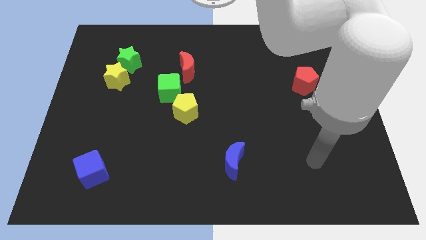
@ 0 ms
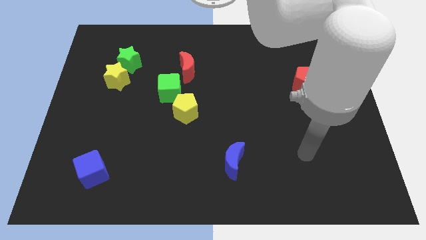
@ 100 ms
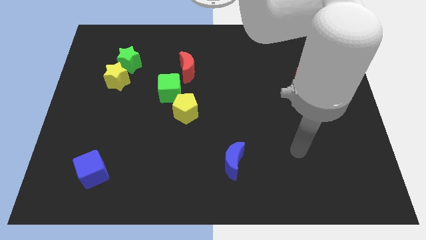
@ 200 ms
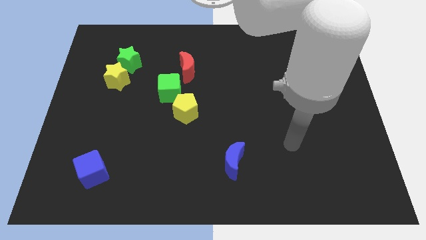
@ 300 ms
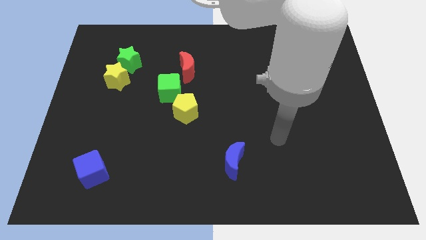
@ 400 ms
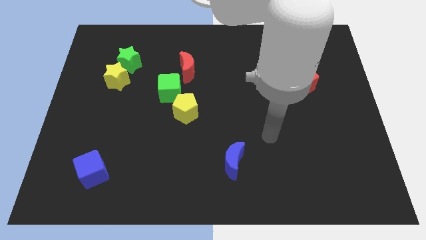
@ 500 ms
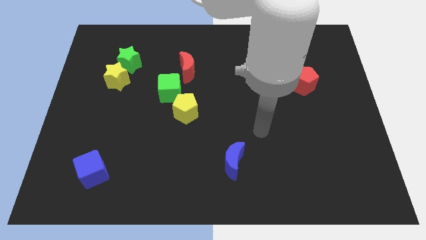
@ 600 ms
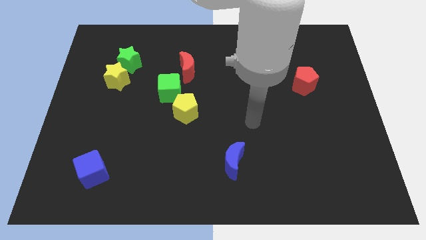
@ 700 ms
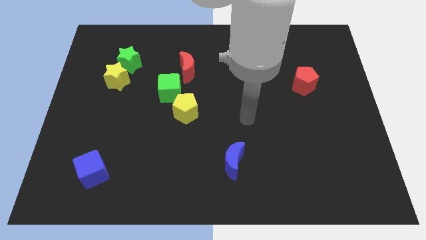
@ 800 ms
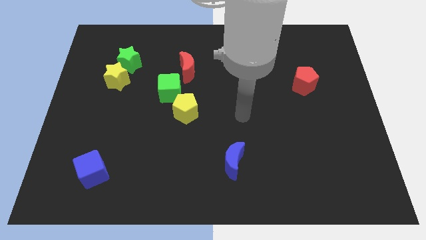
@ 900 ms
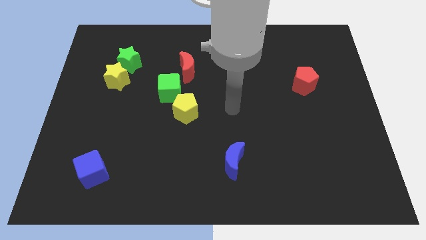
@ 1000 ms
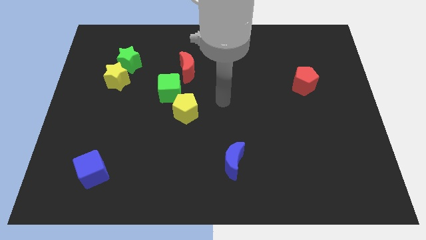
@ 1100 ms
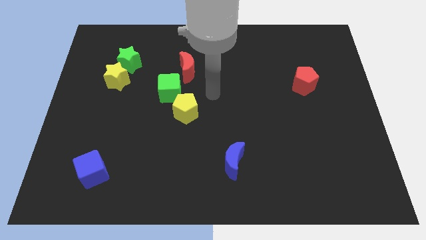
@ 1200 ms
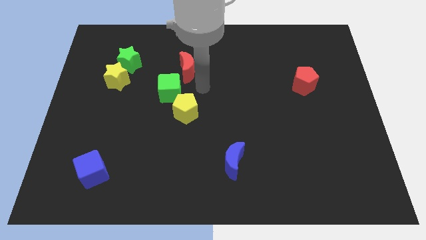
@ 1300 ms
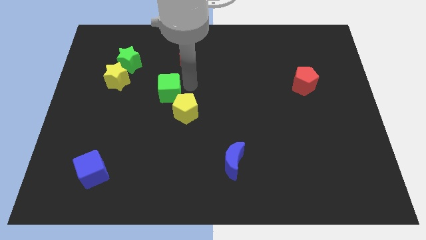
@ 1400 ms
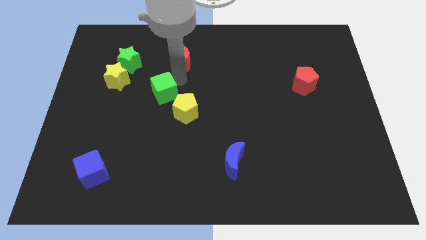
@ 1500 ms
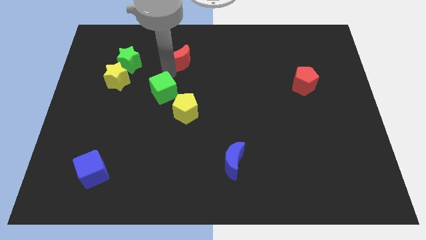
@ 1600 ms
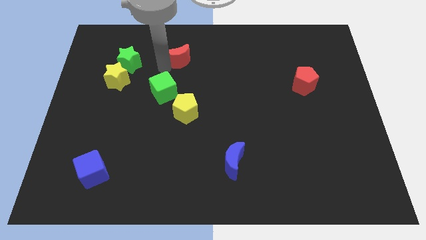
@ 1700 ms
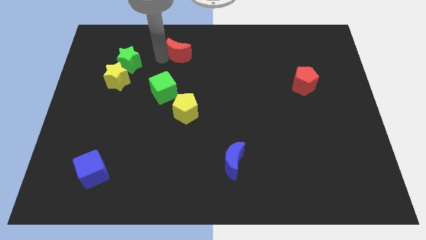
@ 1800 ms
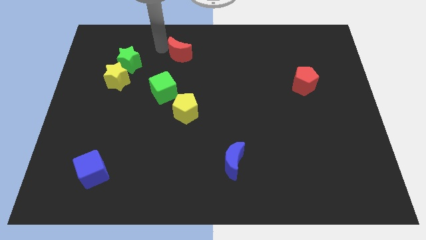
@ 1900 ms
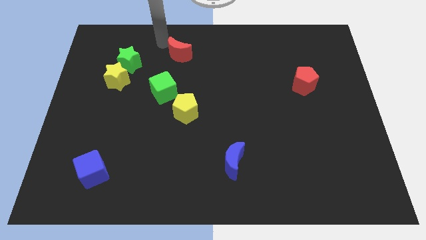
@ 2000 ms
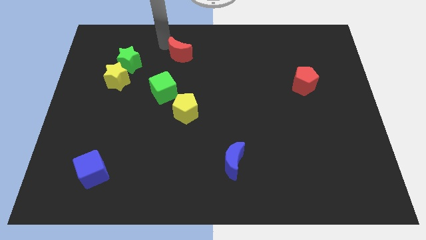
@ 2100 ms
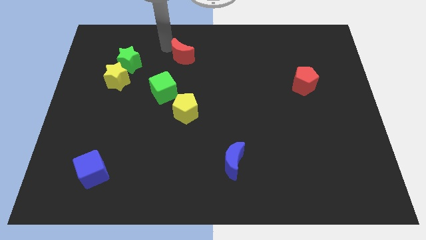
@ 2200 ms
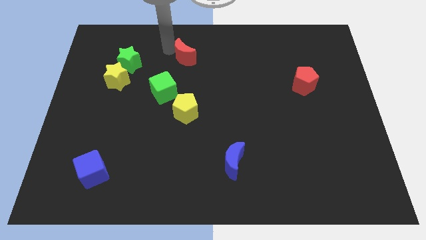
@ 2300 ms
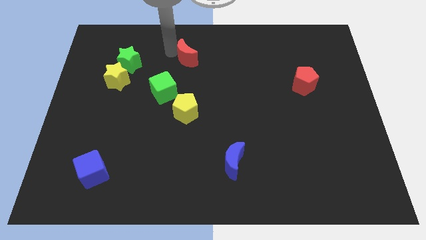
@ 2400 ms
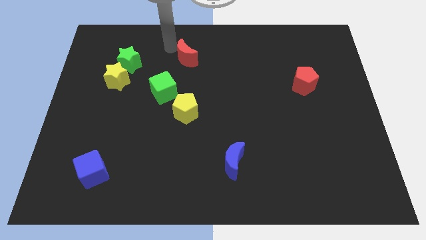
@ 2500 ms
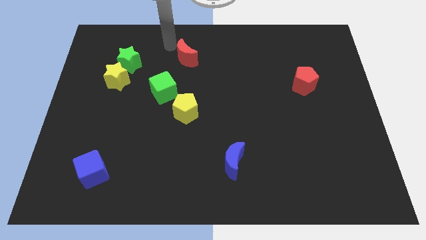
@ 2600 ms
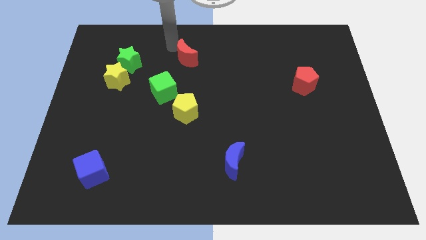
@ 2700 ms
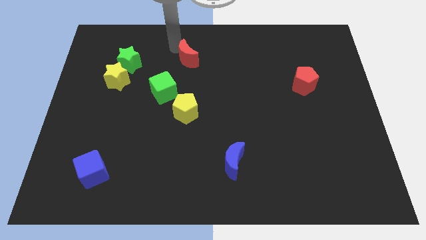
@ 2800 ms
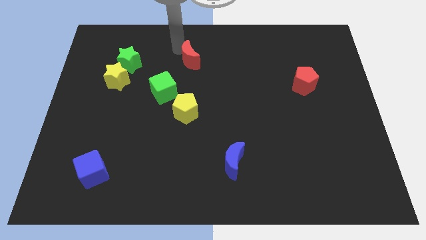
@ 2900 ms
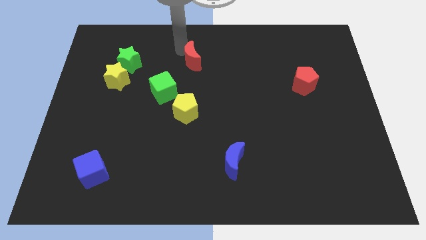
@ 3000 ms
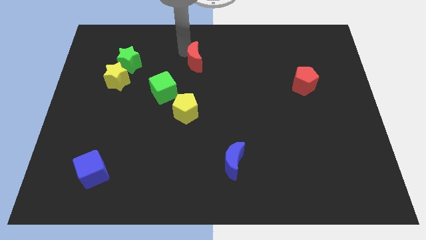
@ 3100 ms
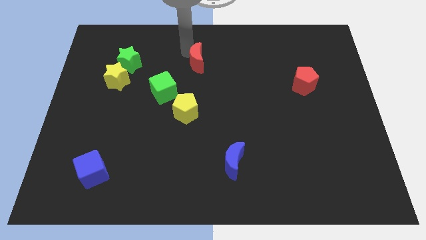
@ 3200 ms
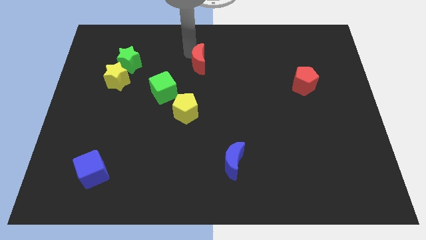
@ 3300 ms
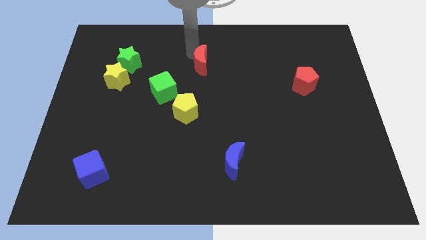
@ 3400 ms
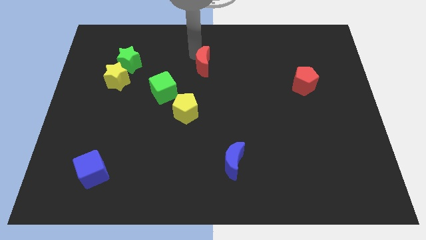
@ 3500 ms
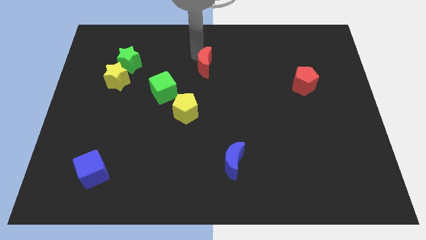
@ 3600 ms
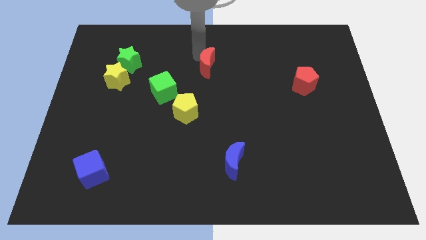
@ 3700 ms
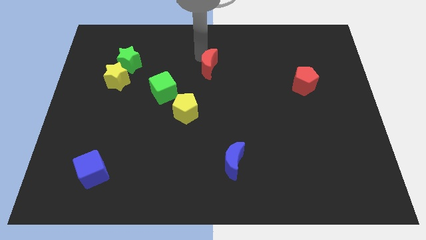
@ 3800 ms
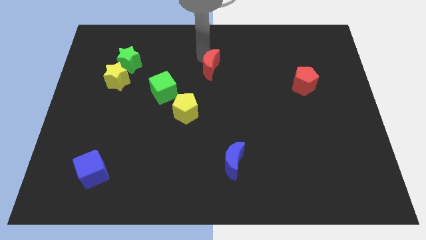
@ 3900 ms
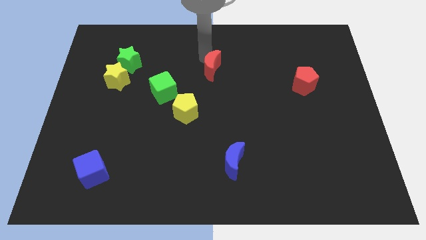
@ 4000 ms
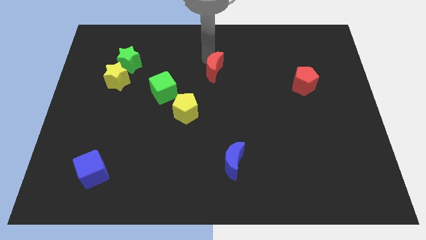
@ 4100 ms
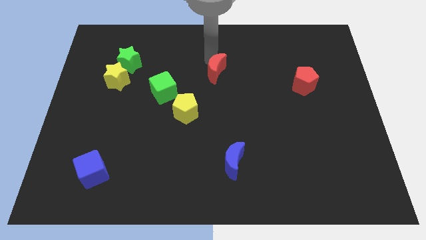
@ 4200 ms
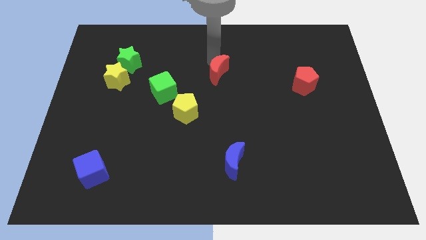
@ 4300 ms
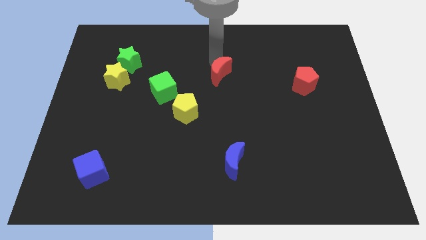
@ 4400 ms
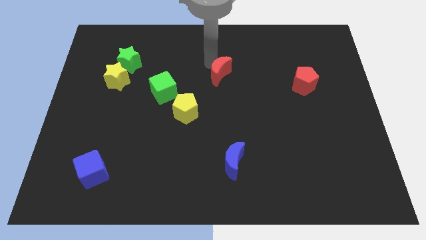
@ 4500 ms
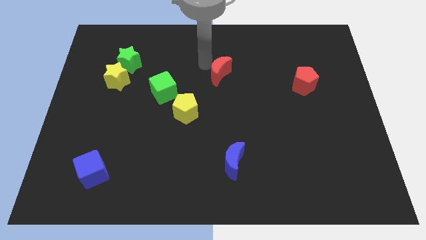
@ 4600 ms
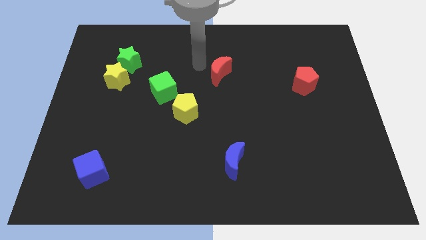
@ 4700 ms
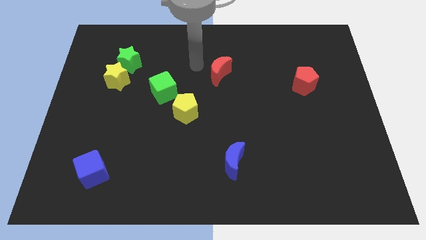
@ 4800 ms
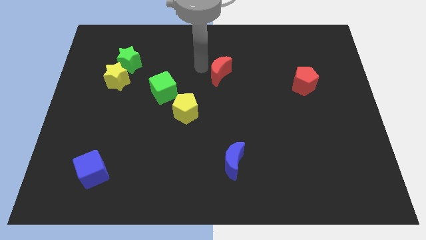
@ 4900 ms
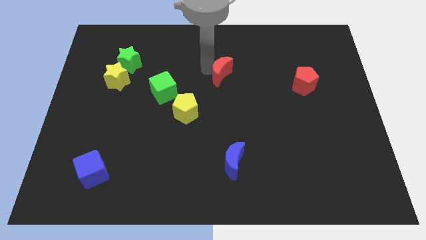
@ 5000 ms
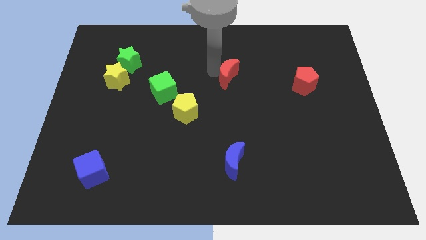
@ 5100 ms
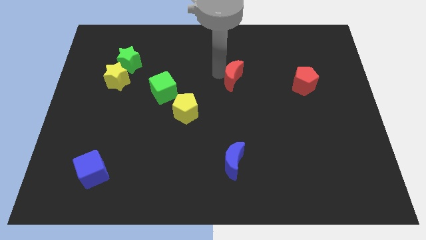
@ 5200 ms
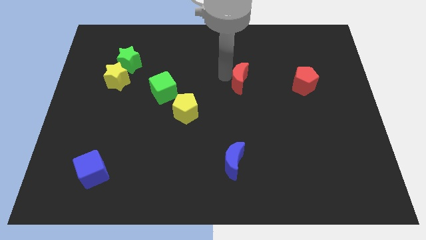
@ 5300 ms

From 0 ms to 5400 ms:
move the red moon left of the red pentagon

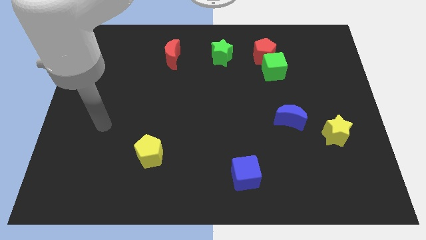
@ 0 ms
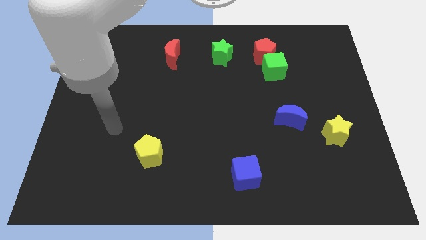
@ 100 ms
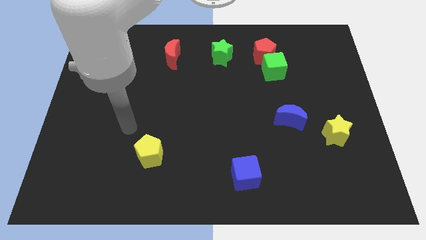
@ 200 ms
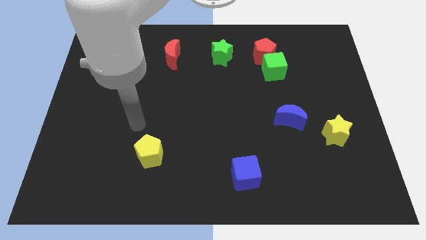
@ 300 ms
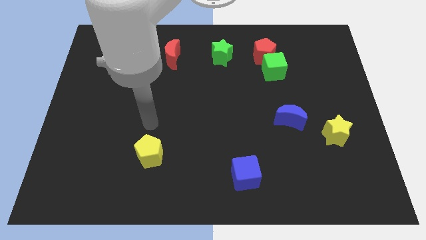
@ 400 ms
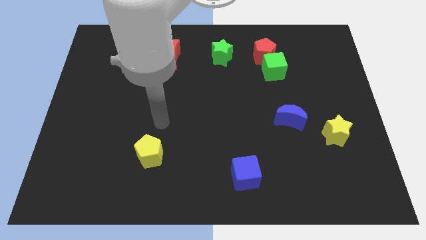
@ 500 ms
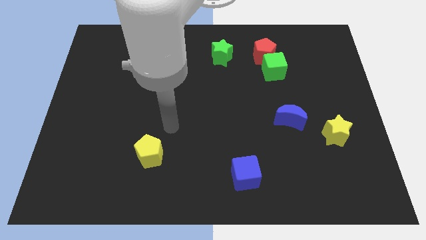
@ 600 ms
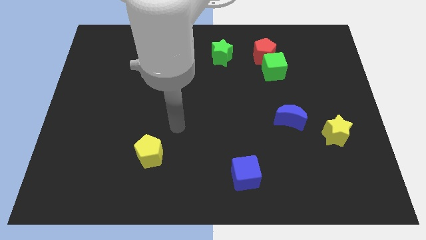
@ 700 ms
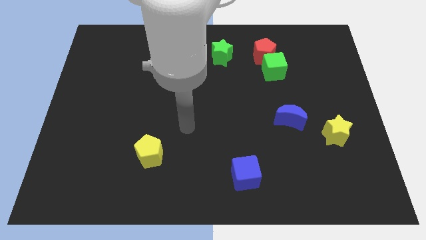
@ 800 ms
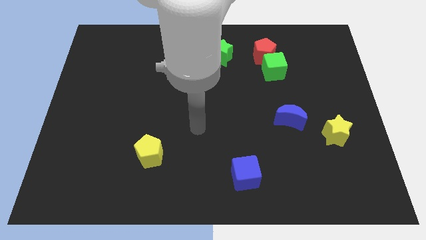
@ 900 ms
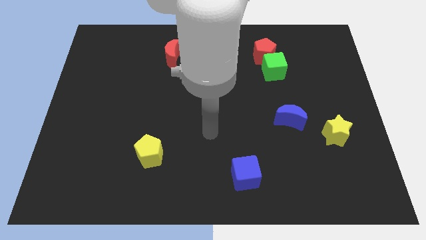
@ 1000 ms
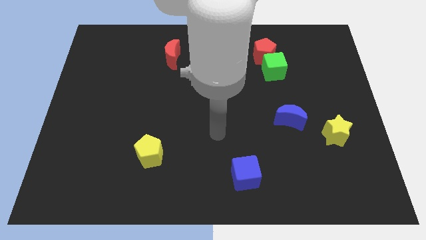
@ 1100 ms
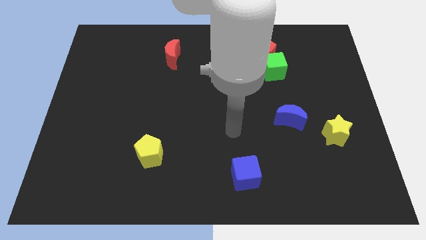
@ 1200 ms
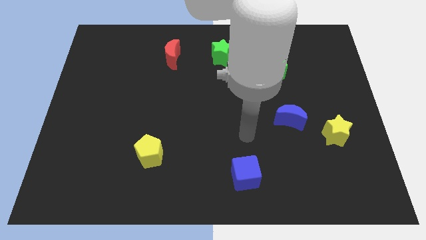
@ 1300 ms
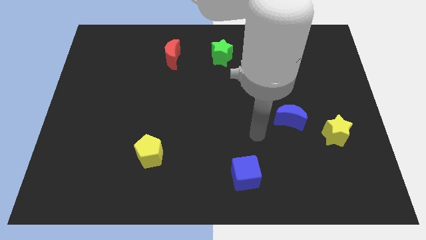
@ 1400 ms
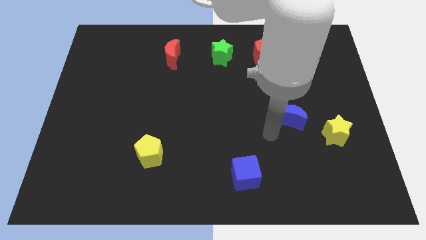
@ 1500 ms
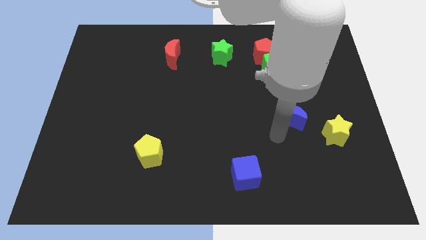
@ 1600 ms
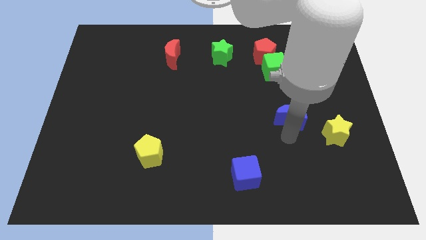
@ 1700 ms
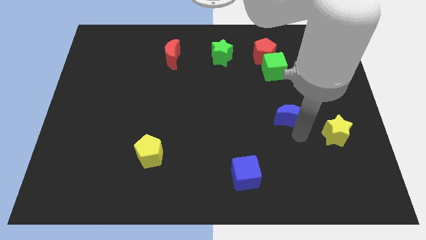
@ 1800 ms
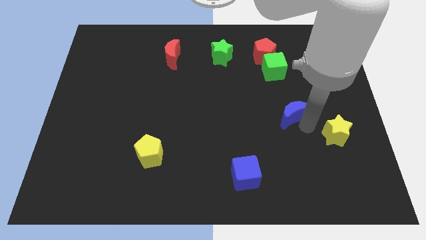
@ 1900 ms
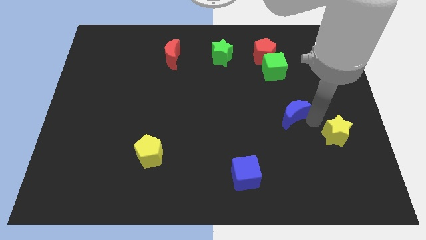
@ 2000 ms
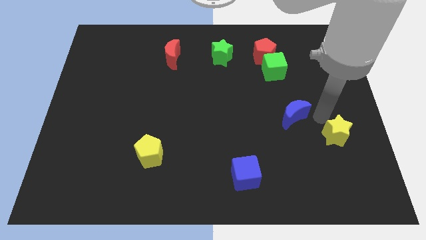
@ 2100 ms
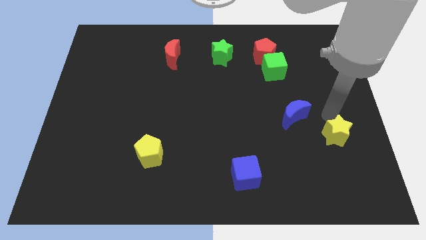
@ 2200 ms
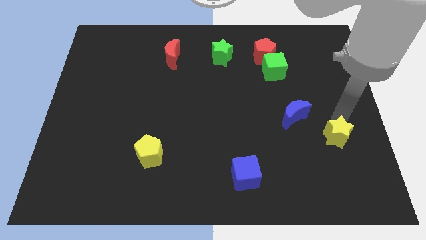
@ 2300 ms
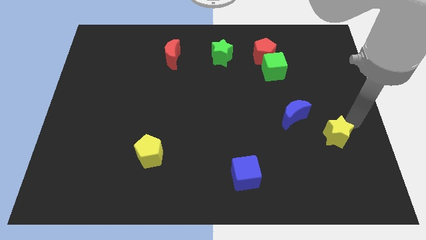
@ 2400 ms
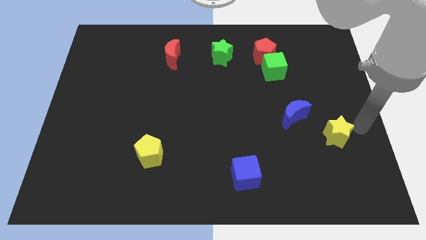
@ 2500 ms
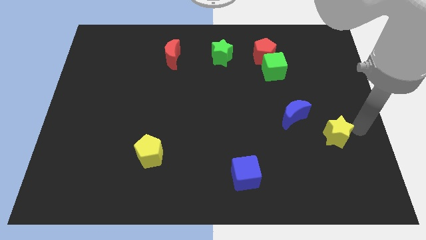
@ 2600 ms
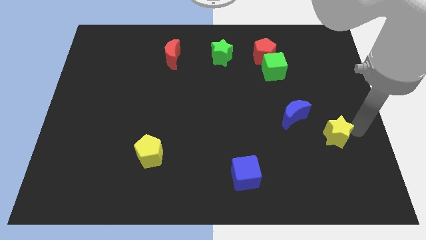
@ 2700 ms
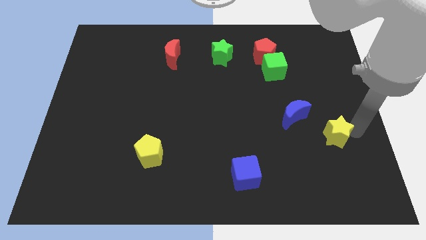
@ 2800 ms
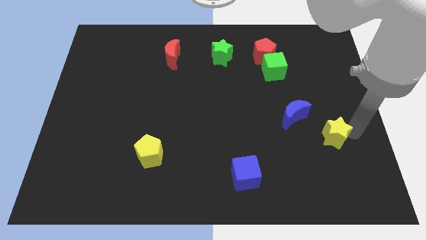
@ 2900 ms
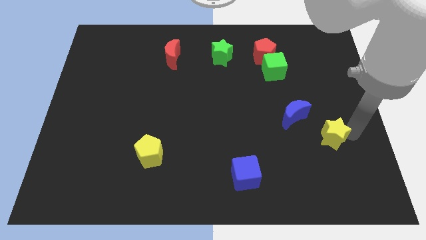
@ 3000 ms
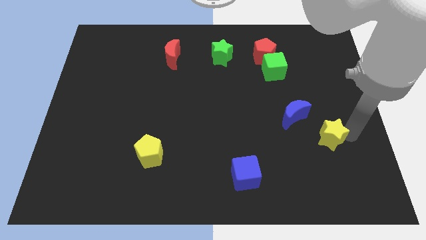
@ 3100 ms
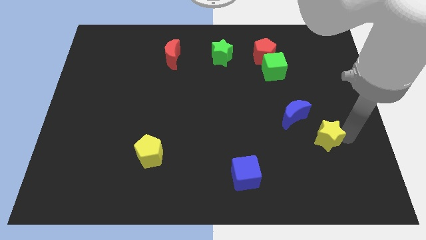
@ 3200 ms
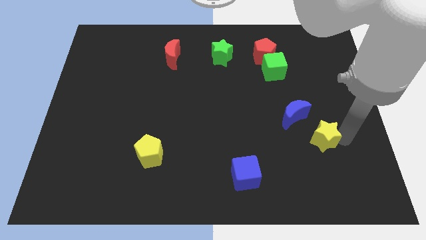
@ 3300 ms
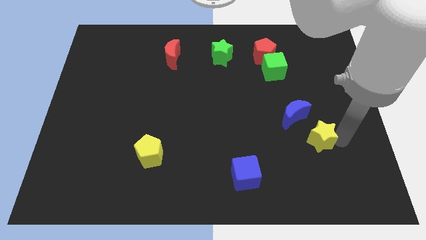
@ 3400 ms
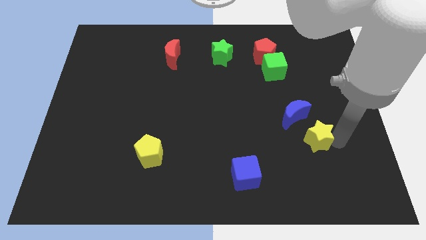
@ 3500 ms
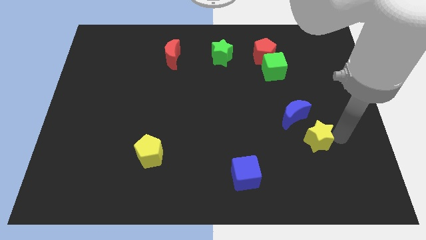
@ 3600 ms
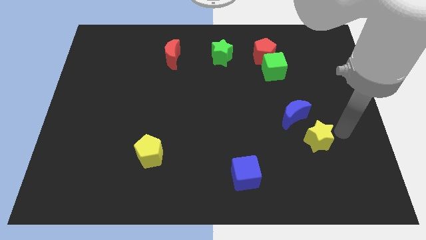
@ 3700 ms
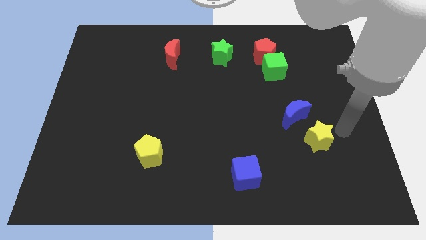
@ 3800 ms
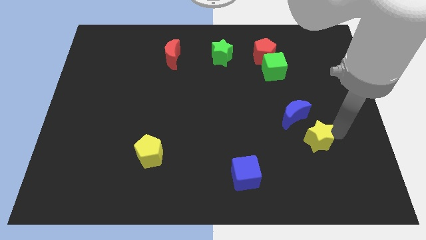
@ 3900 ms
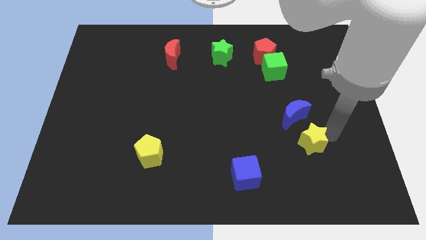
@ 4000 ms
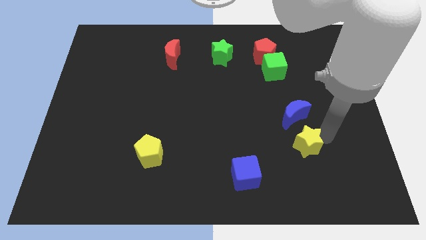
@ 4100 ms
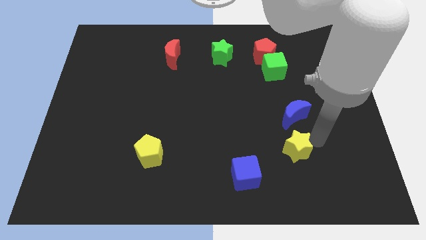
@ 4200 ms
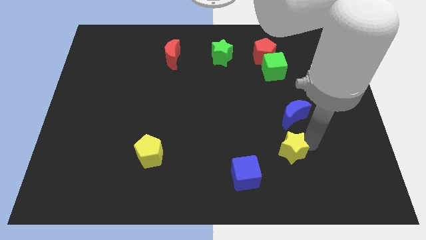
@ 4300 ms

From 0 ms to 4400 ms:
push the yellow star to the top right side of the blue cube
